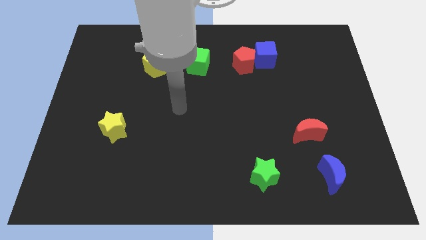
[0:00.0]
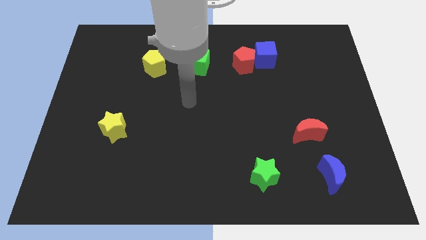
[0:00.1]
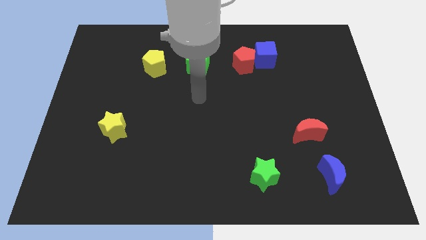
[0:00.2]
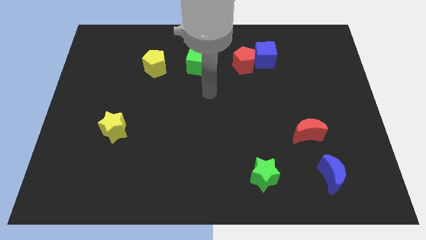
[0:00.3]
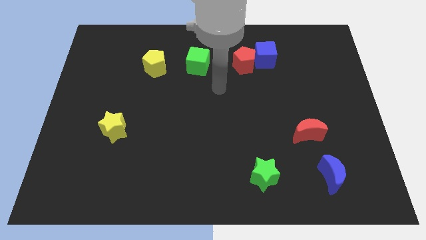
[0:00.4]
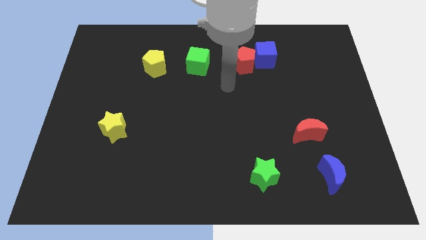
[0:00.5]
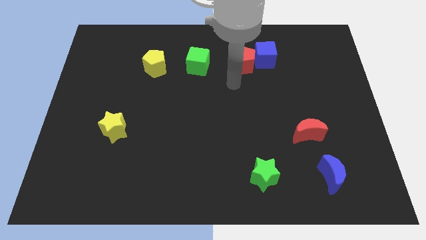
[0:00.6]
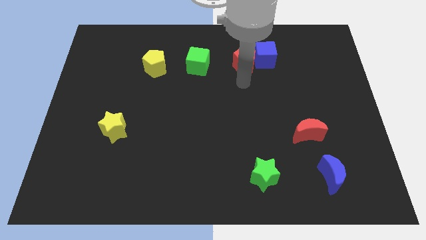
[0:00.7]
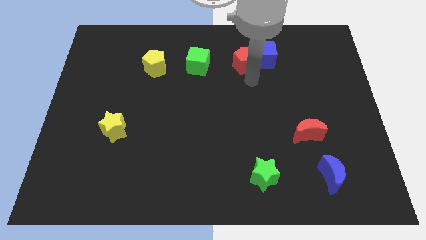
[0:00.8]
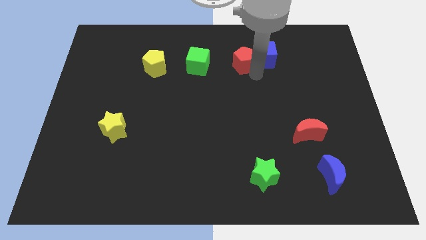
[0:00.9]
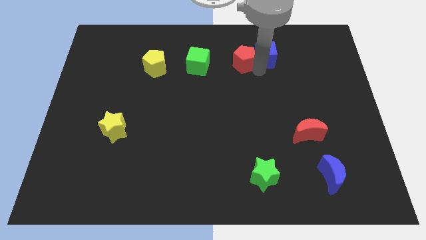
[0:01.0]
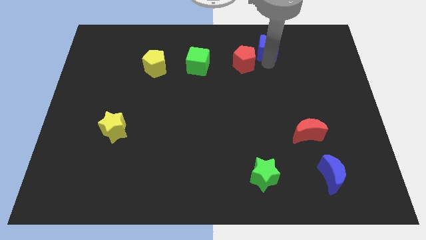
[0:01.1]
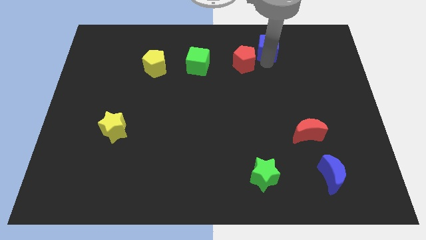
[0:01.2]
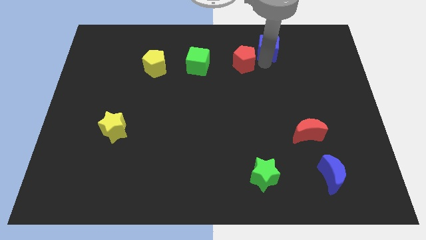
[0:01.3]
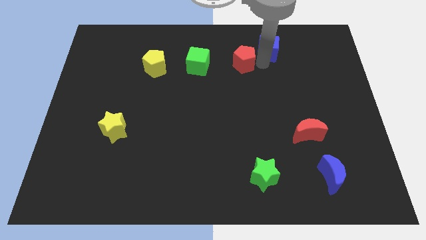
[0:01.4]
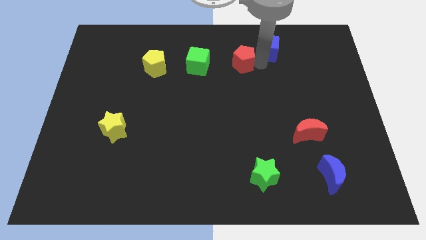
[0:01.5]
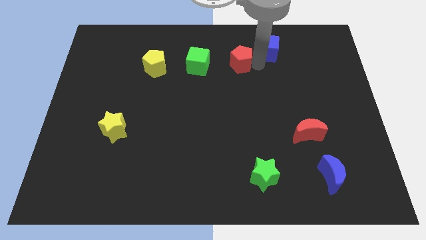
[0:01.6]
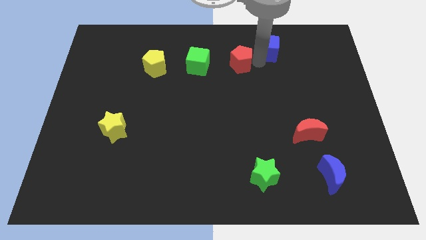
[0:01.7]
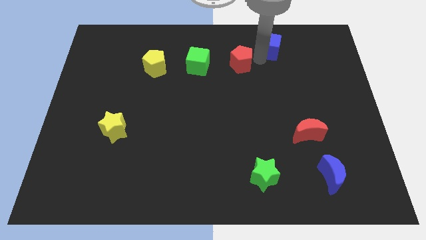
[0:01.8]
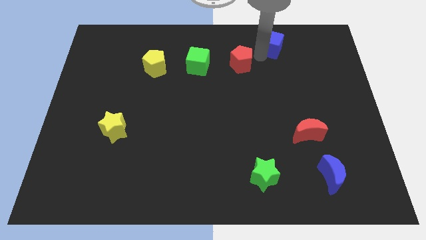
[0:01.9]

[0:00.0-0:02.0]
pull the red pentagon apart from the blue cube

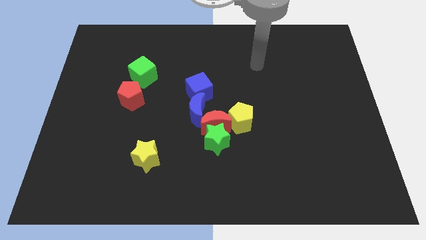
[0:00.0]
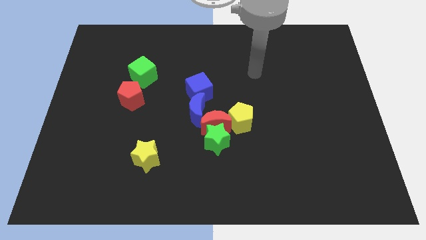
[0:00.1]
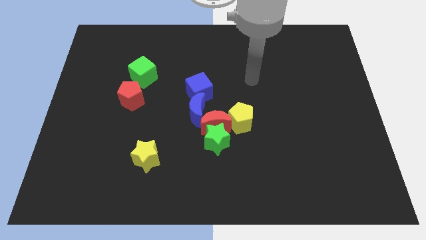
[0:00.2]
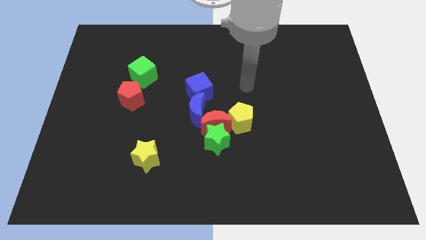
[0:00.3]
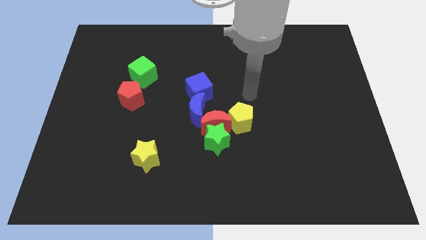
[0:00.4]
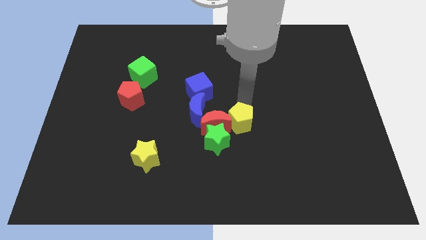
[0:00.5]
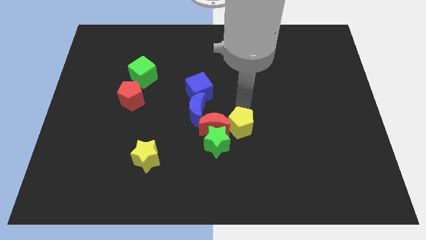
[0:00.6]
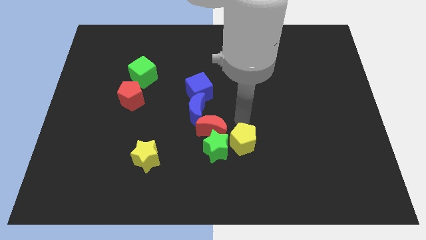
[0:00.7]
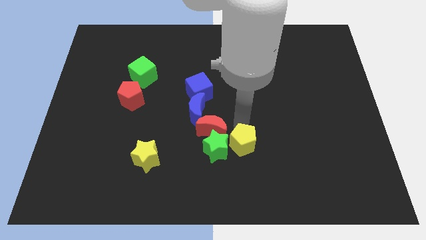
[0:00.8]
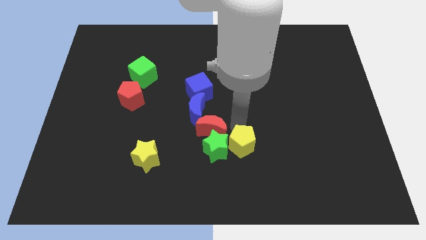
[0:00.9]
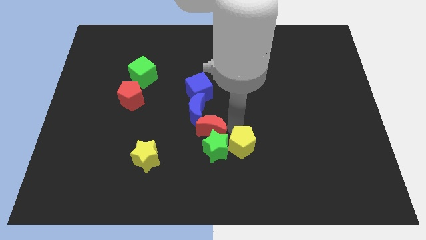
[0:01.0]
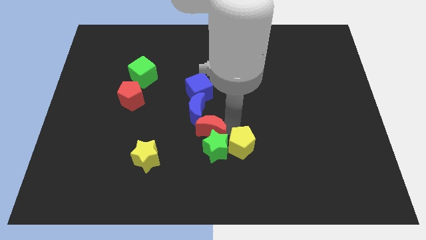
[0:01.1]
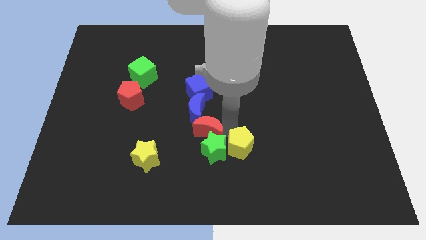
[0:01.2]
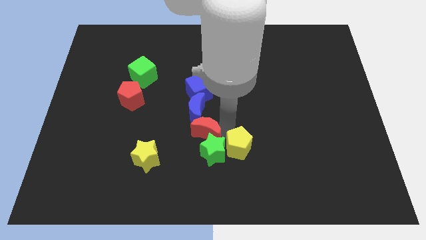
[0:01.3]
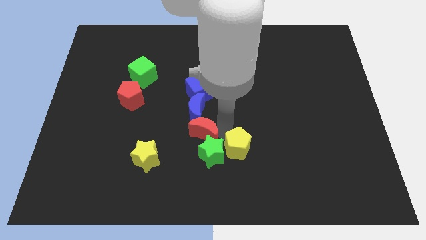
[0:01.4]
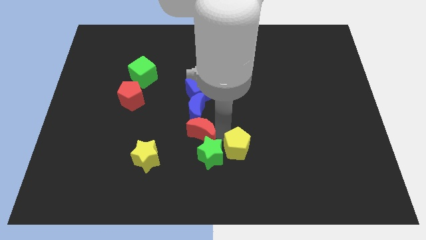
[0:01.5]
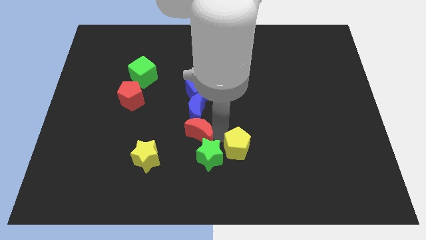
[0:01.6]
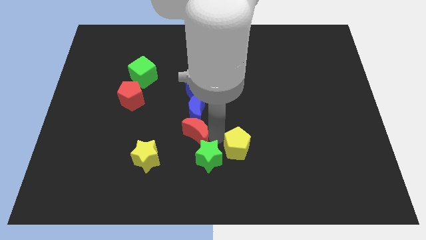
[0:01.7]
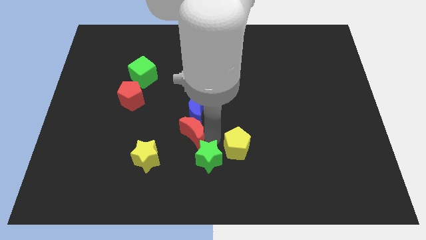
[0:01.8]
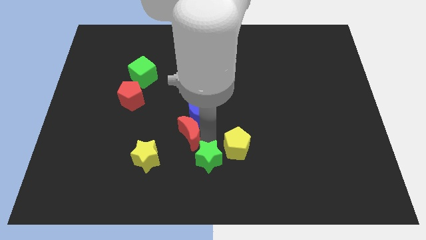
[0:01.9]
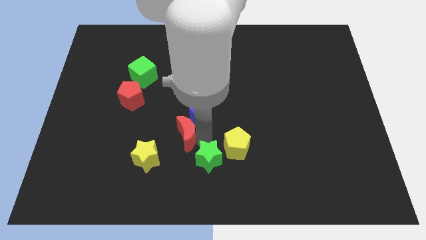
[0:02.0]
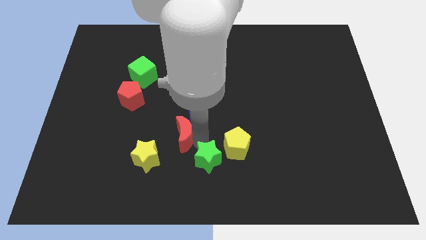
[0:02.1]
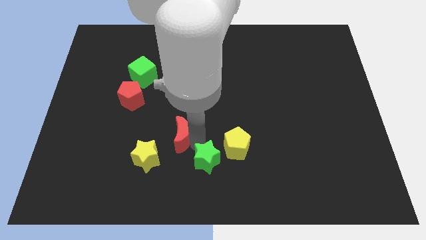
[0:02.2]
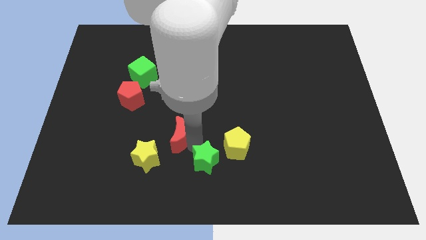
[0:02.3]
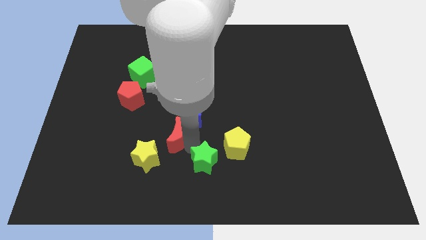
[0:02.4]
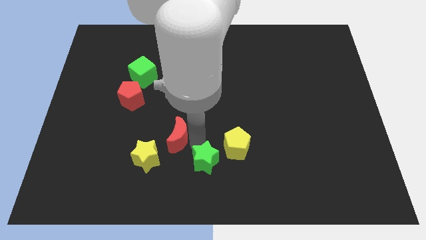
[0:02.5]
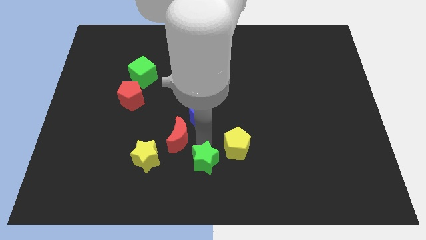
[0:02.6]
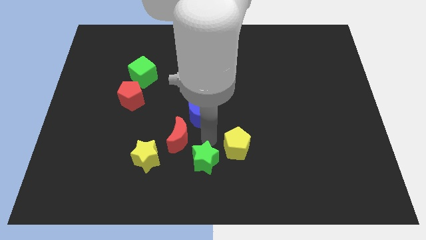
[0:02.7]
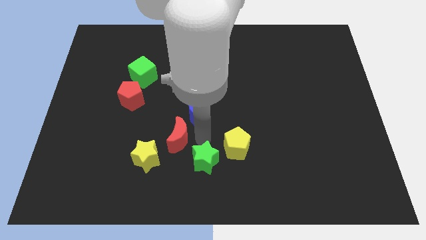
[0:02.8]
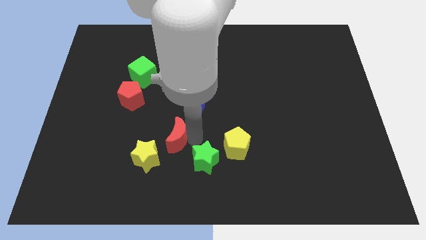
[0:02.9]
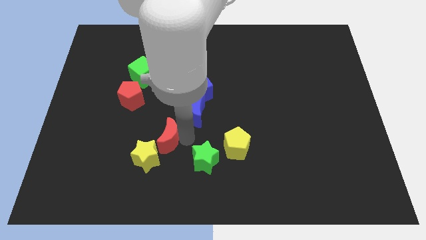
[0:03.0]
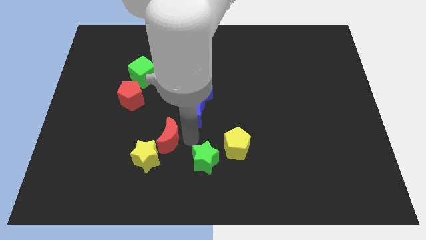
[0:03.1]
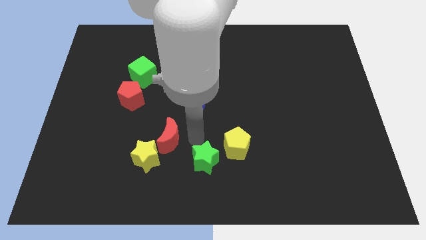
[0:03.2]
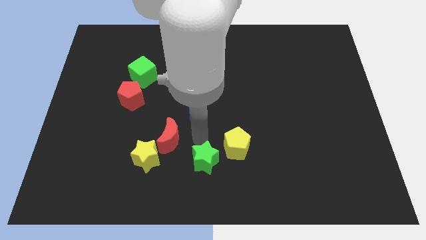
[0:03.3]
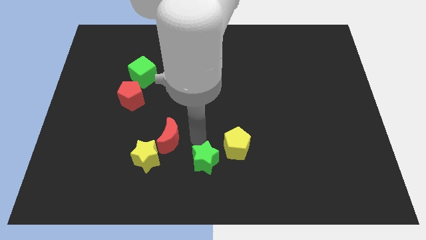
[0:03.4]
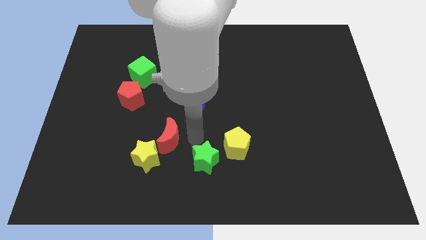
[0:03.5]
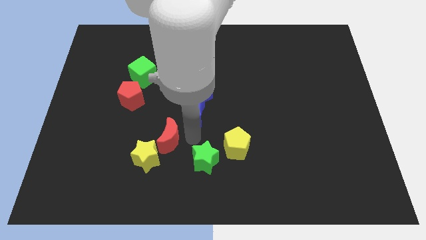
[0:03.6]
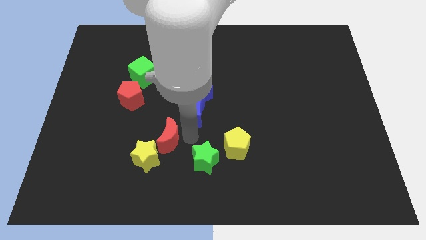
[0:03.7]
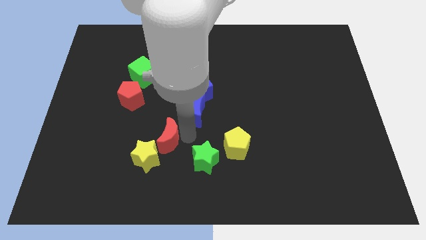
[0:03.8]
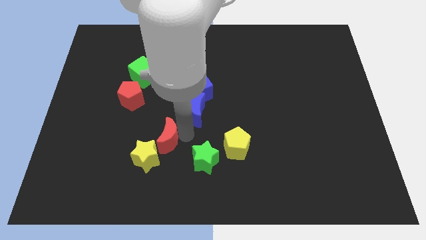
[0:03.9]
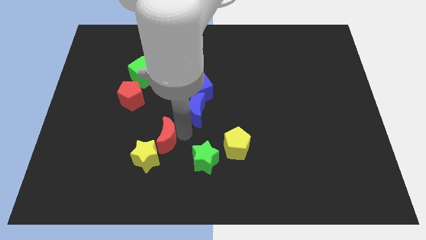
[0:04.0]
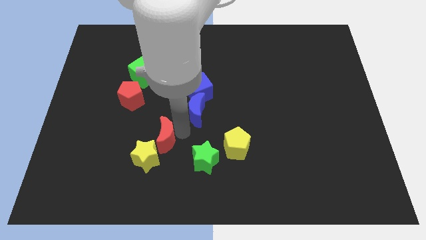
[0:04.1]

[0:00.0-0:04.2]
separate the red moon from the green star, blue moon, and yellow pentagon

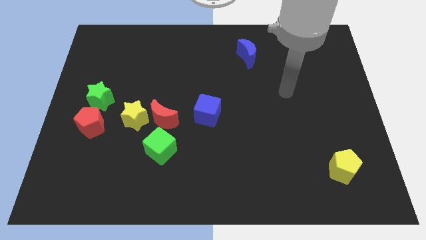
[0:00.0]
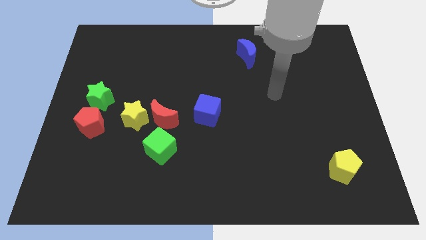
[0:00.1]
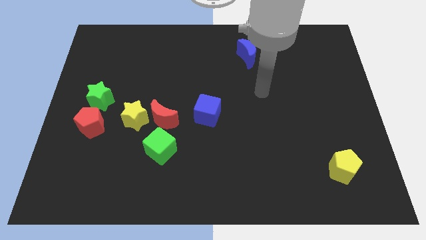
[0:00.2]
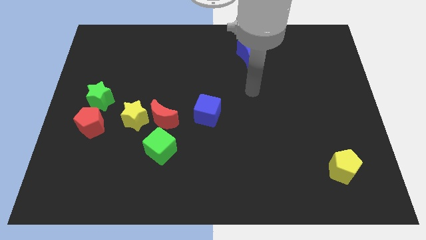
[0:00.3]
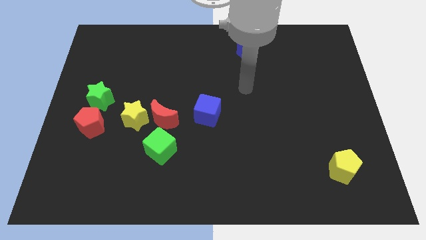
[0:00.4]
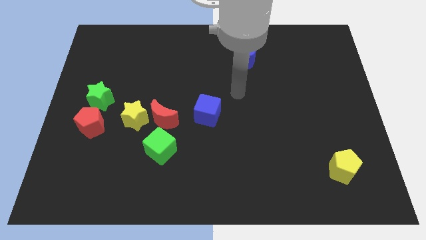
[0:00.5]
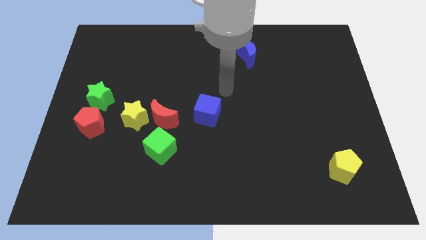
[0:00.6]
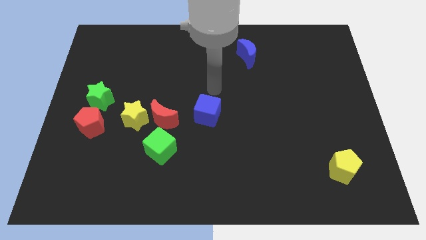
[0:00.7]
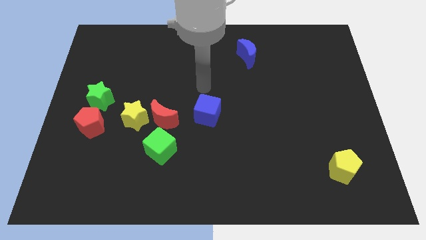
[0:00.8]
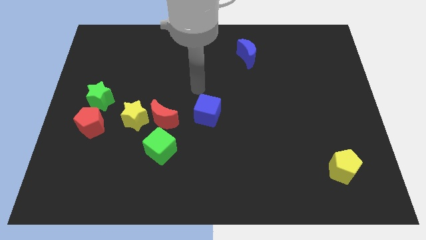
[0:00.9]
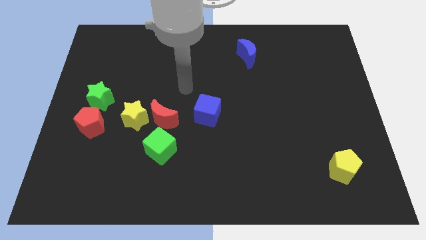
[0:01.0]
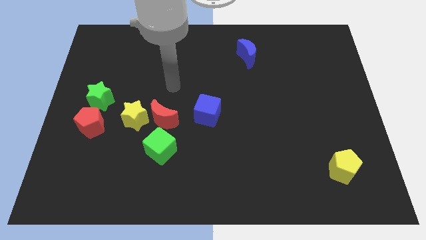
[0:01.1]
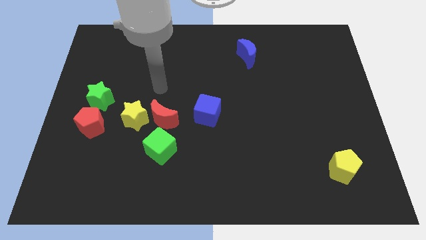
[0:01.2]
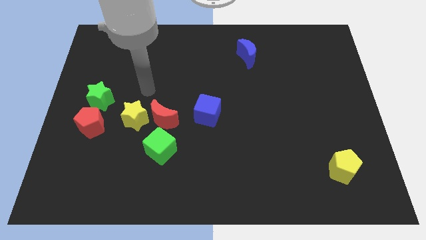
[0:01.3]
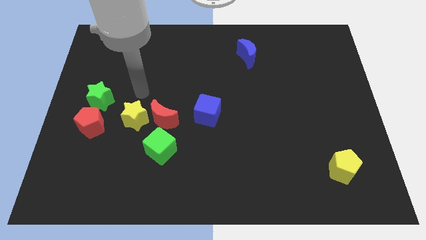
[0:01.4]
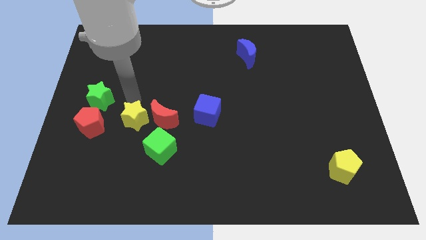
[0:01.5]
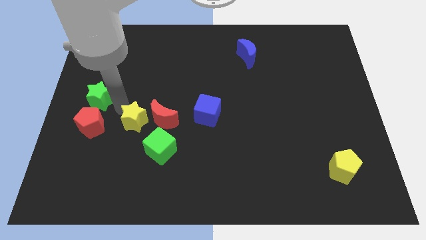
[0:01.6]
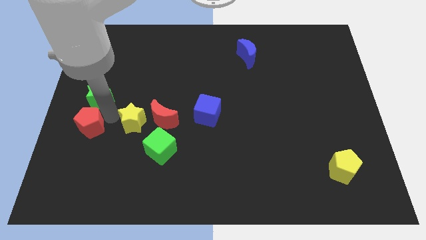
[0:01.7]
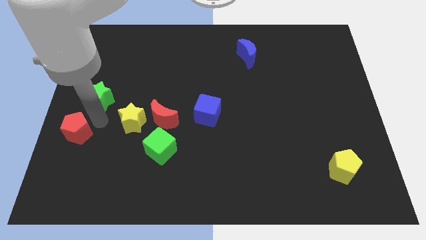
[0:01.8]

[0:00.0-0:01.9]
separate the green star from the red pentagon

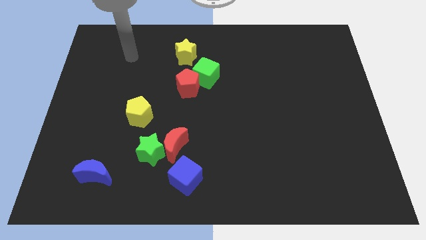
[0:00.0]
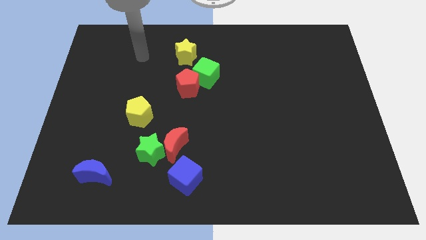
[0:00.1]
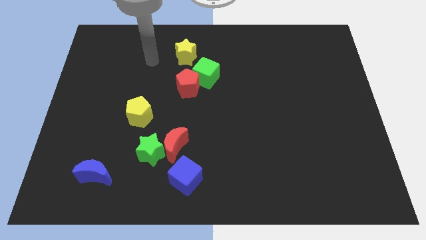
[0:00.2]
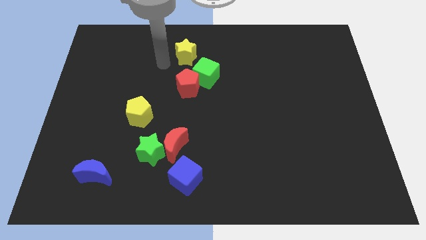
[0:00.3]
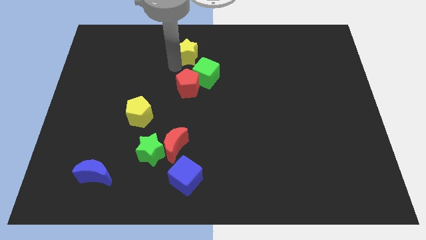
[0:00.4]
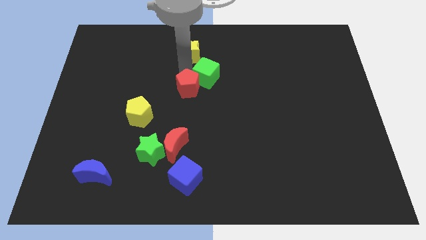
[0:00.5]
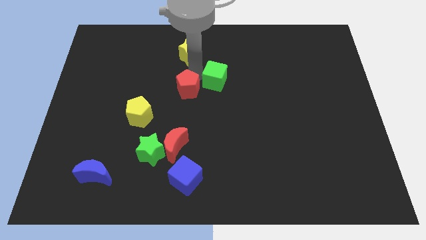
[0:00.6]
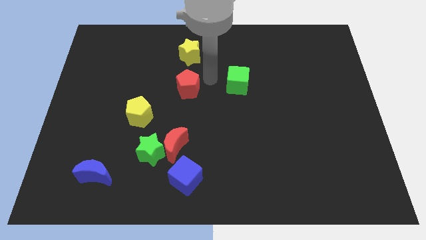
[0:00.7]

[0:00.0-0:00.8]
move the red pentagon away from the green cube

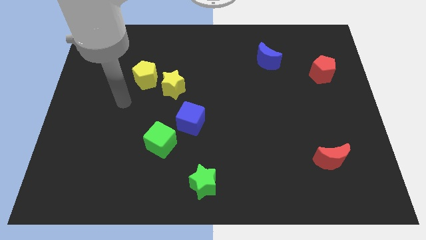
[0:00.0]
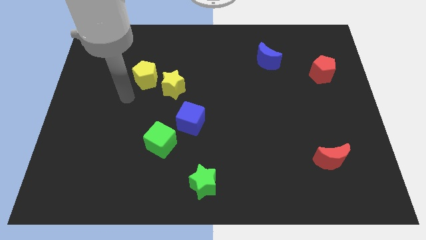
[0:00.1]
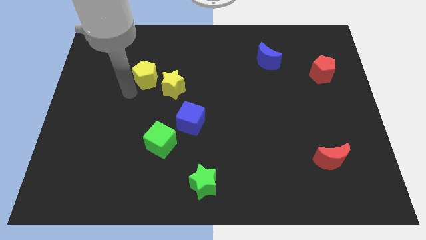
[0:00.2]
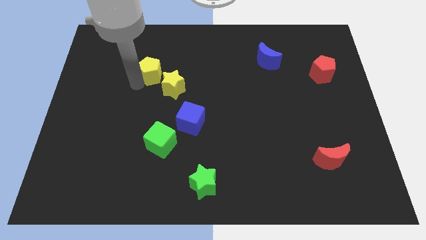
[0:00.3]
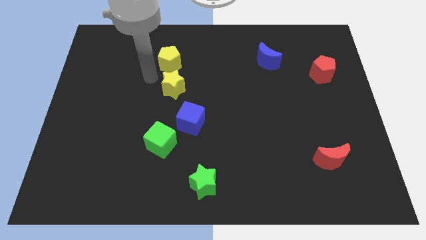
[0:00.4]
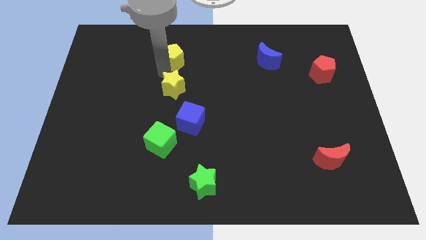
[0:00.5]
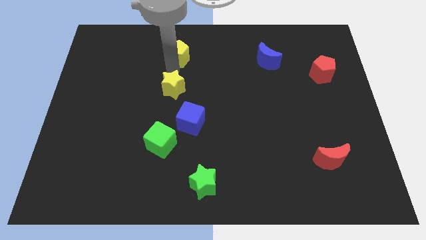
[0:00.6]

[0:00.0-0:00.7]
separate the yellow star from the yellow pentagon
